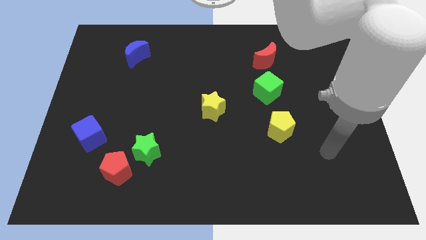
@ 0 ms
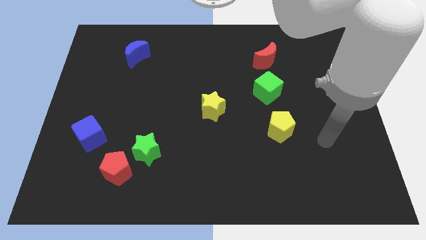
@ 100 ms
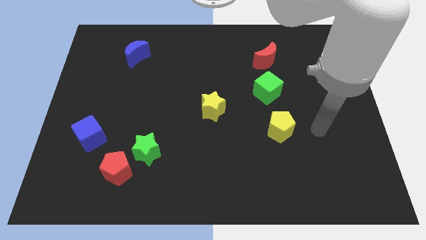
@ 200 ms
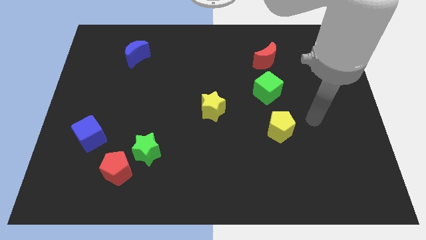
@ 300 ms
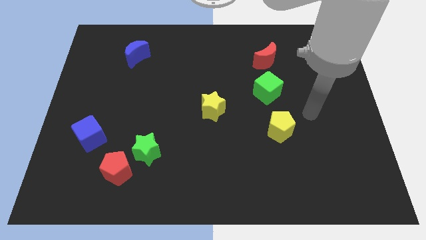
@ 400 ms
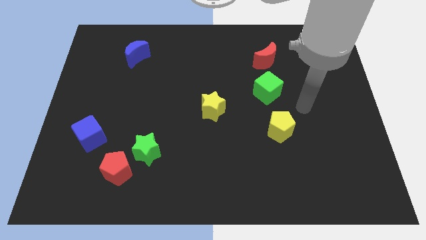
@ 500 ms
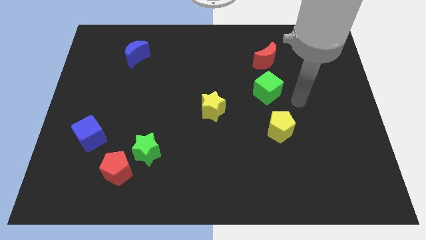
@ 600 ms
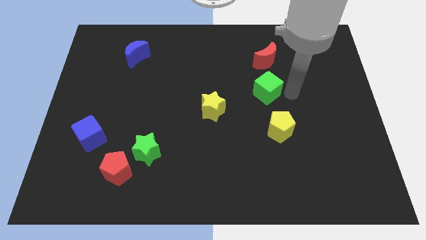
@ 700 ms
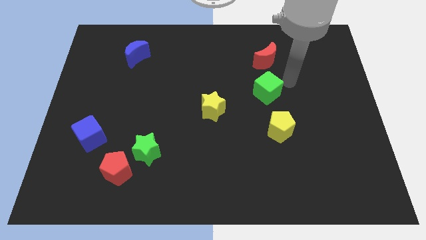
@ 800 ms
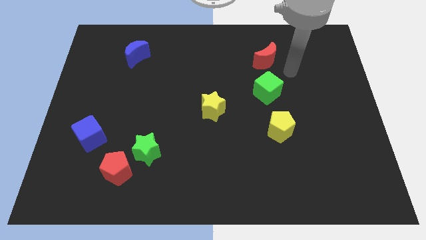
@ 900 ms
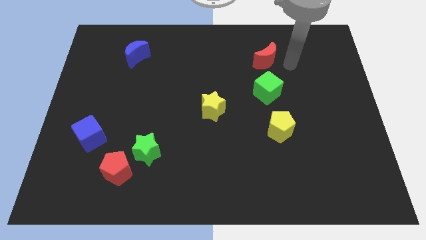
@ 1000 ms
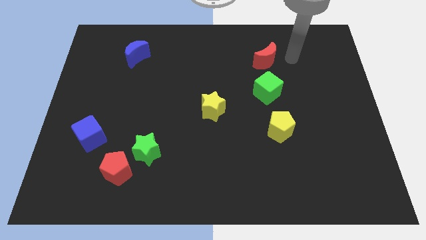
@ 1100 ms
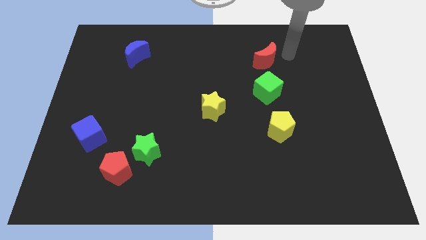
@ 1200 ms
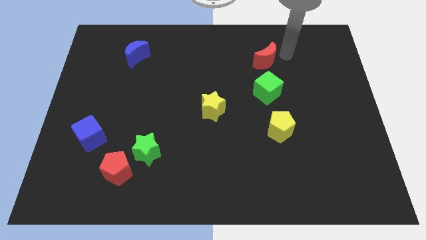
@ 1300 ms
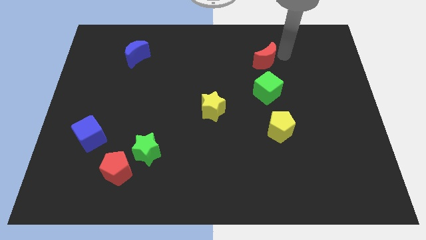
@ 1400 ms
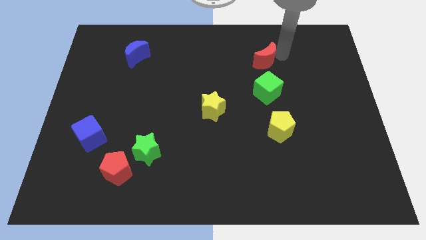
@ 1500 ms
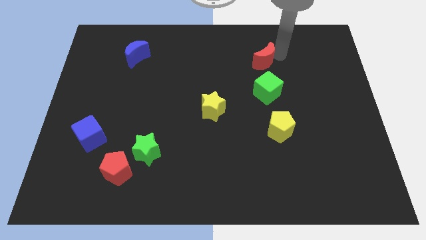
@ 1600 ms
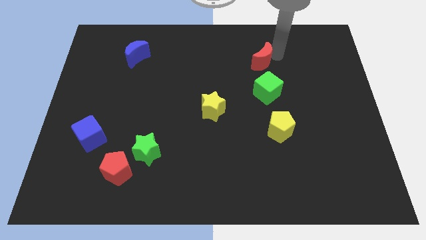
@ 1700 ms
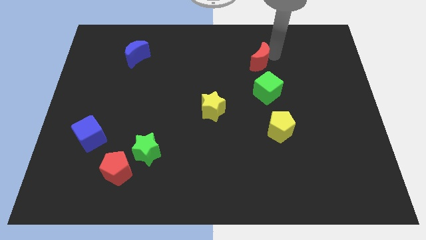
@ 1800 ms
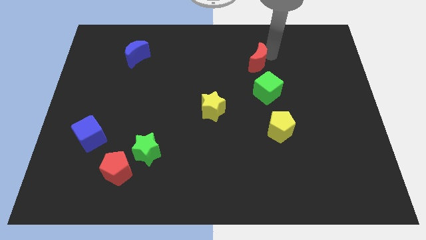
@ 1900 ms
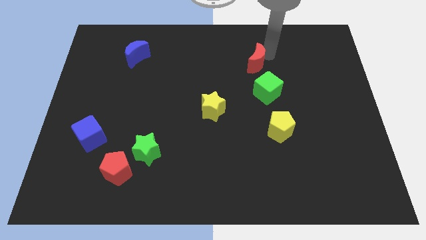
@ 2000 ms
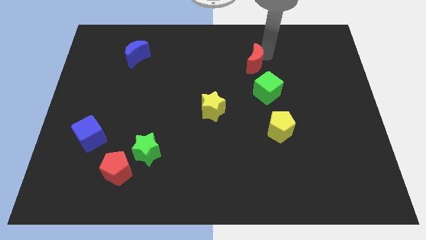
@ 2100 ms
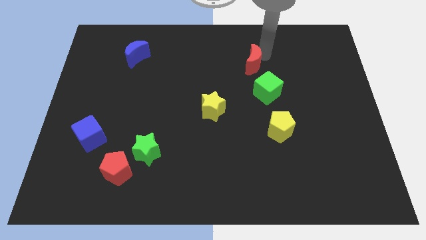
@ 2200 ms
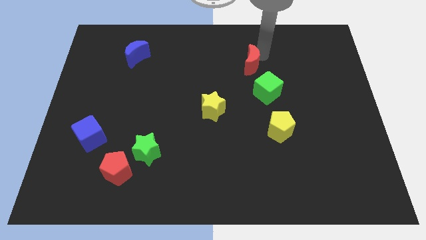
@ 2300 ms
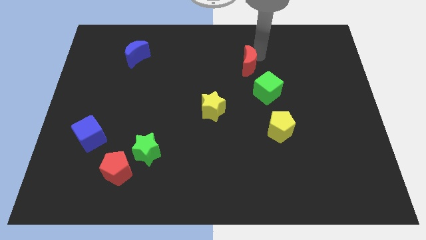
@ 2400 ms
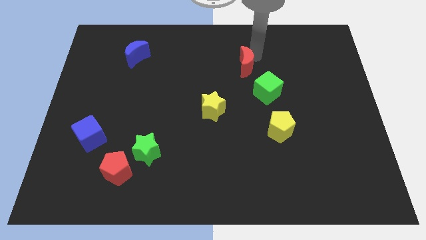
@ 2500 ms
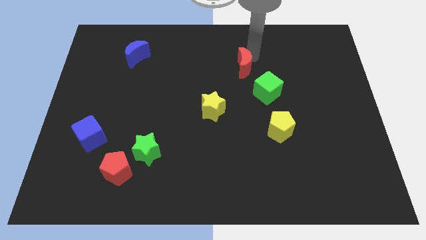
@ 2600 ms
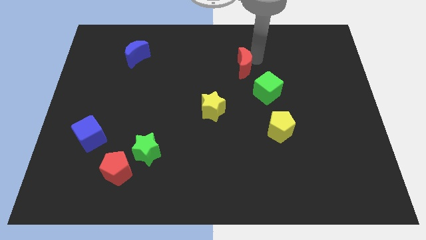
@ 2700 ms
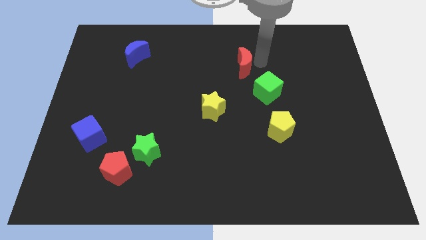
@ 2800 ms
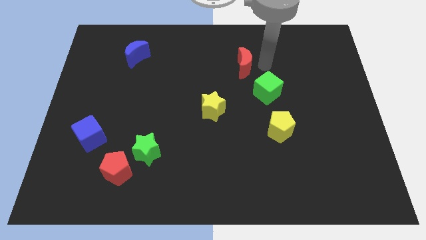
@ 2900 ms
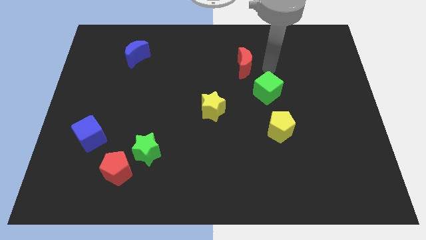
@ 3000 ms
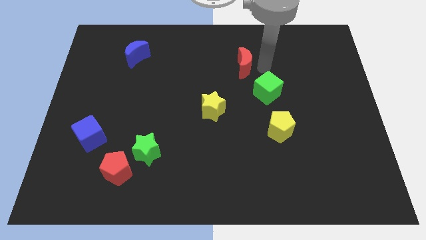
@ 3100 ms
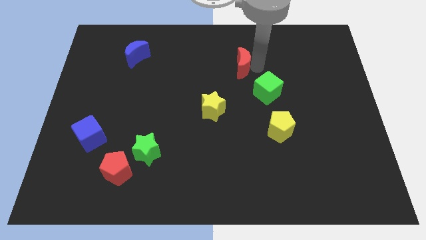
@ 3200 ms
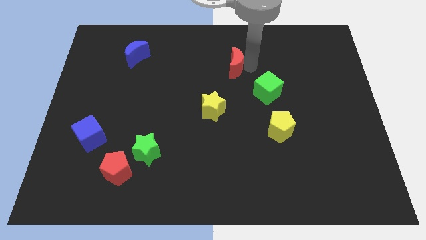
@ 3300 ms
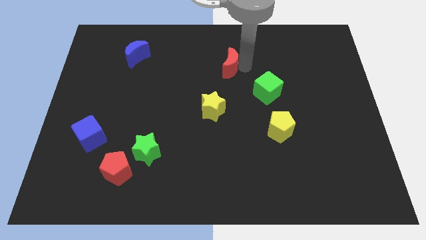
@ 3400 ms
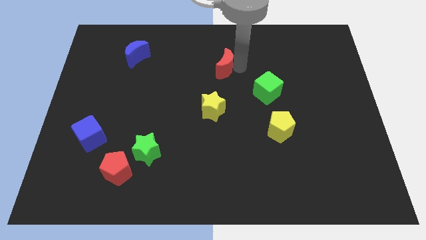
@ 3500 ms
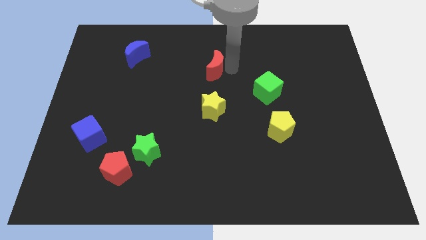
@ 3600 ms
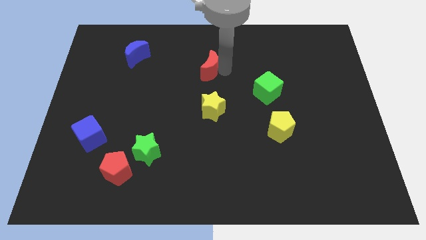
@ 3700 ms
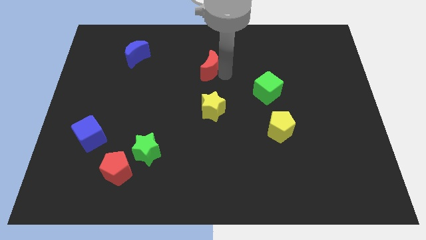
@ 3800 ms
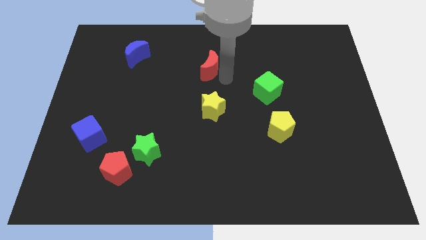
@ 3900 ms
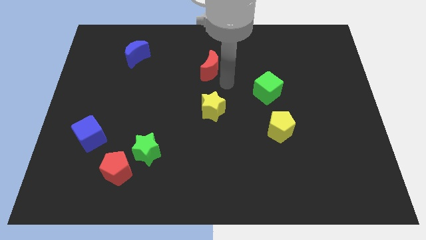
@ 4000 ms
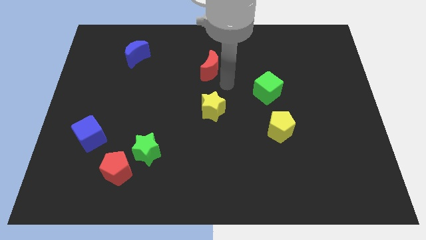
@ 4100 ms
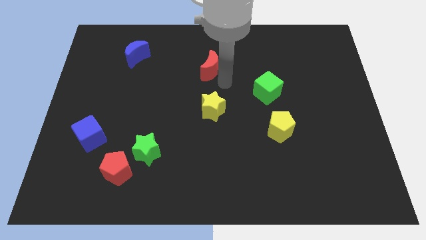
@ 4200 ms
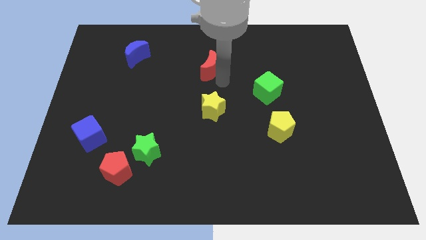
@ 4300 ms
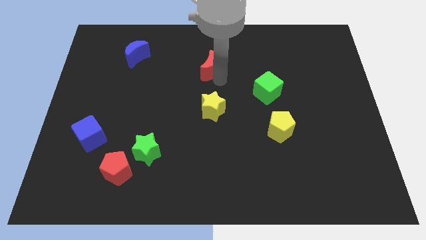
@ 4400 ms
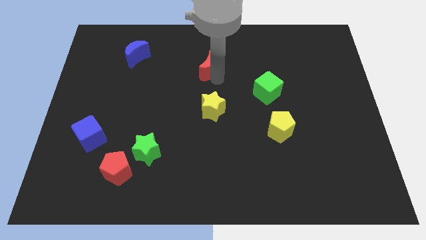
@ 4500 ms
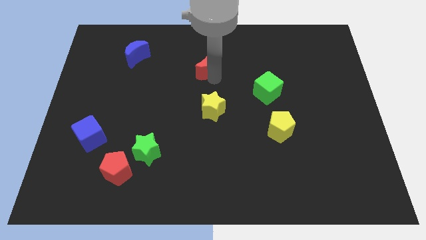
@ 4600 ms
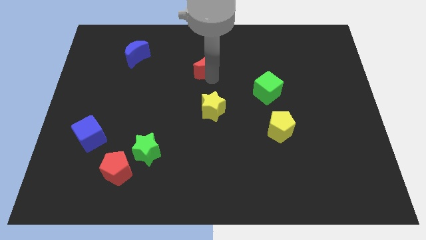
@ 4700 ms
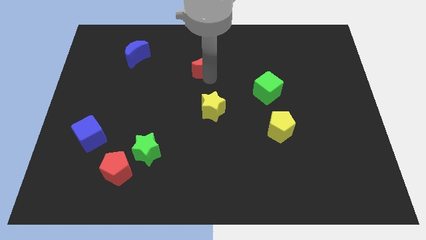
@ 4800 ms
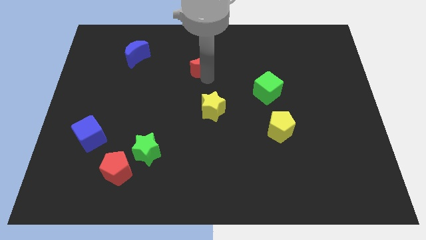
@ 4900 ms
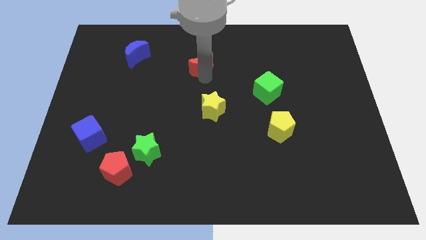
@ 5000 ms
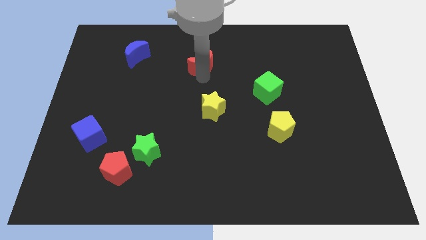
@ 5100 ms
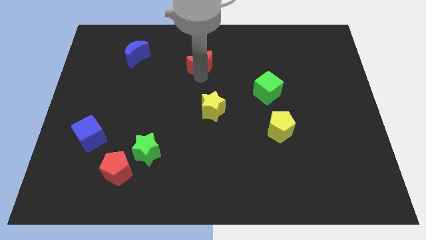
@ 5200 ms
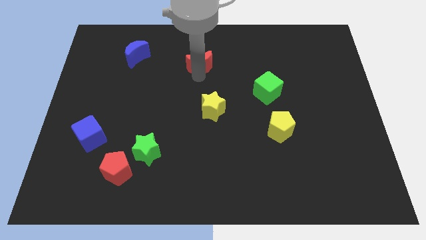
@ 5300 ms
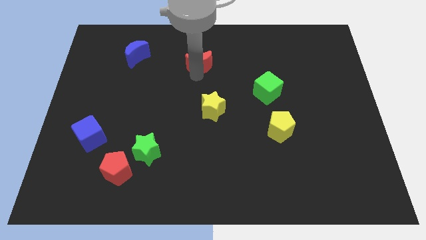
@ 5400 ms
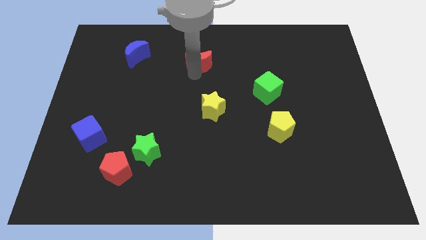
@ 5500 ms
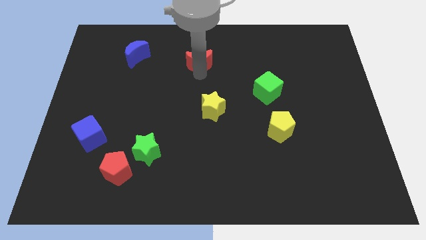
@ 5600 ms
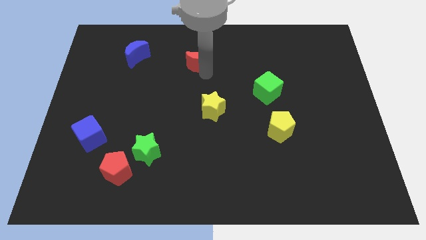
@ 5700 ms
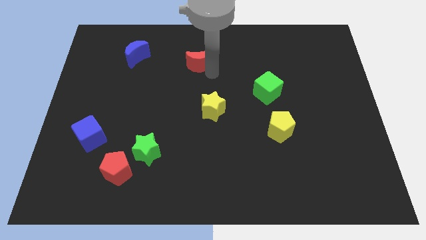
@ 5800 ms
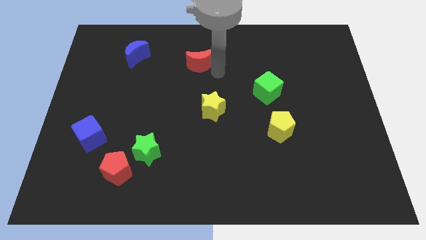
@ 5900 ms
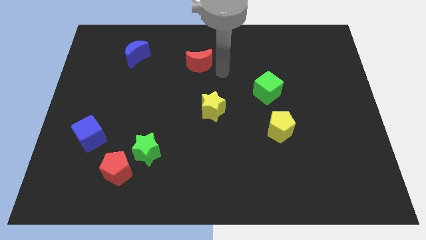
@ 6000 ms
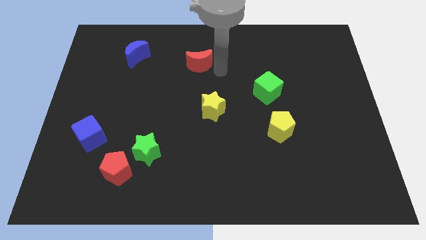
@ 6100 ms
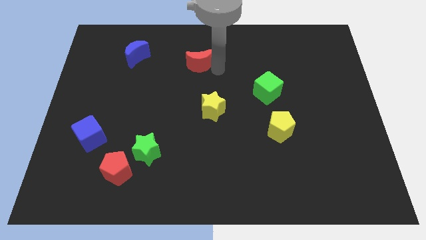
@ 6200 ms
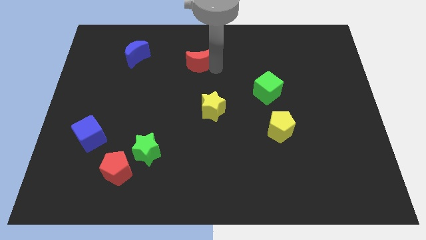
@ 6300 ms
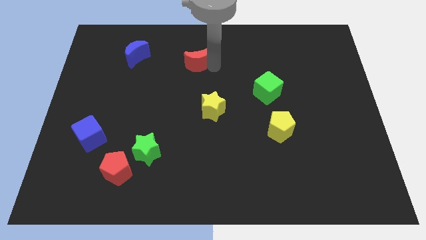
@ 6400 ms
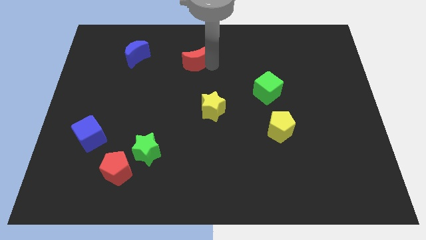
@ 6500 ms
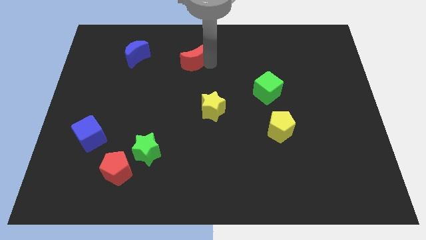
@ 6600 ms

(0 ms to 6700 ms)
slide the red moon just right of the blue moon
